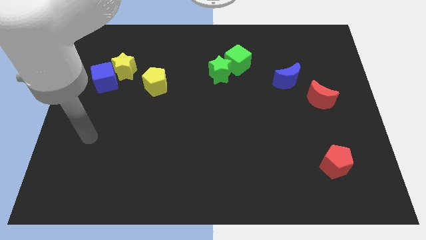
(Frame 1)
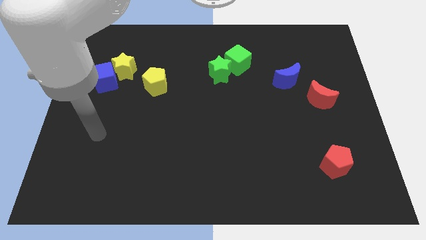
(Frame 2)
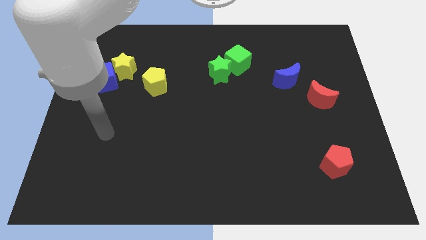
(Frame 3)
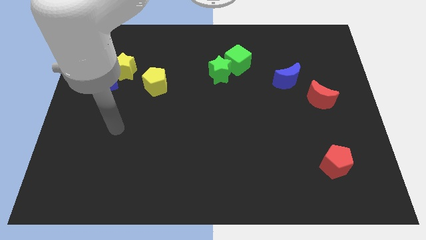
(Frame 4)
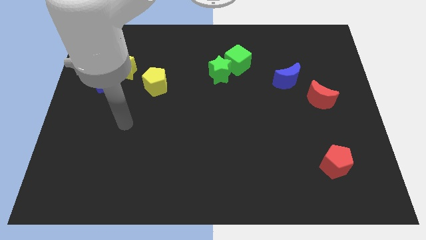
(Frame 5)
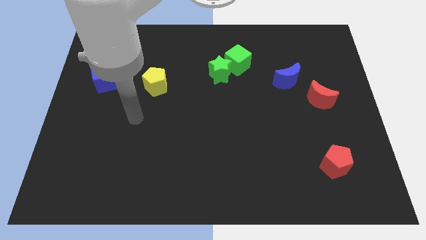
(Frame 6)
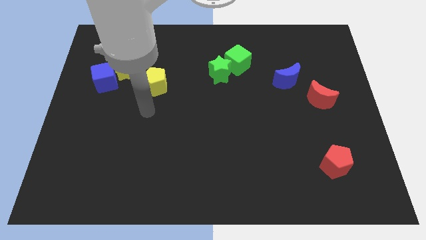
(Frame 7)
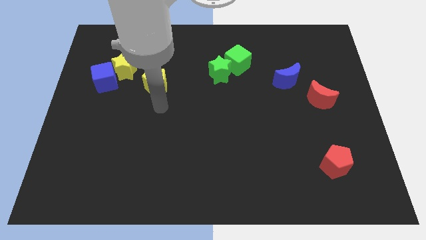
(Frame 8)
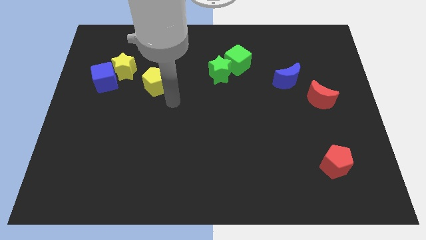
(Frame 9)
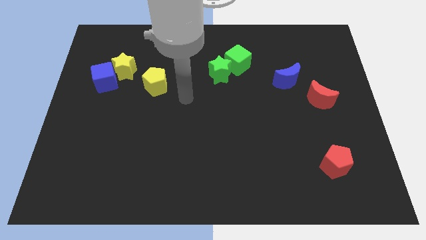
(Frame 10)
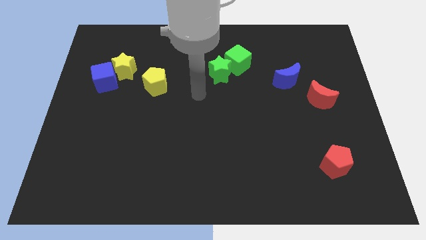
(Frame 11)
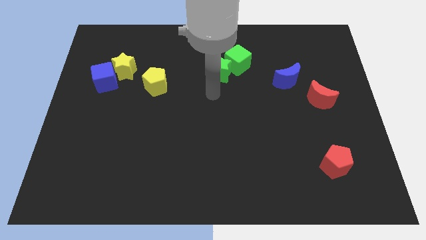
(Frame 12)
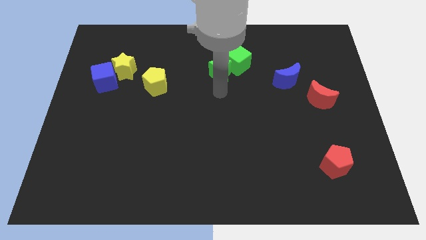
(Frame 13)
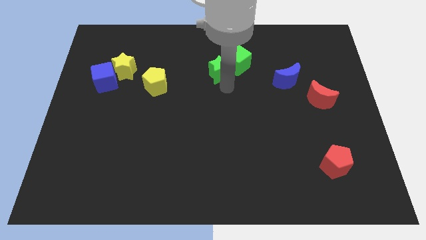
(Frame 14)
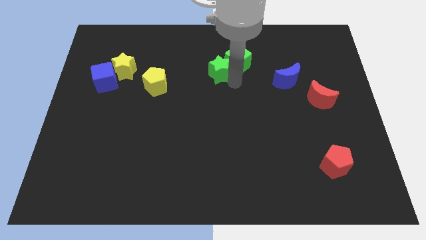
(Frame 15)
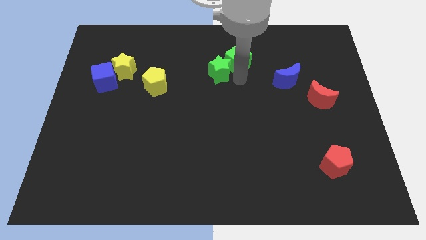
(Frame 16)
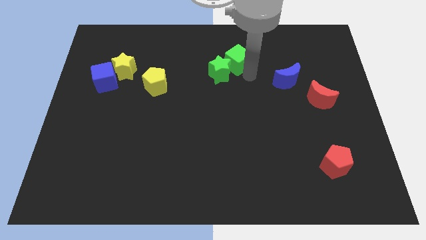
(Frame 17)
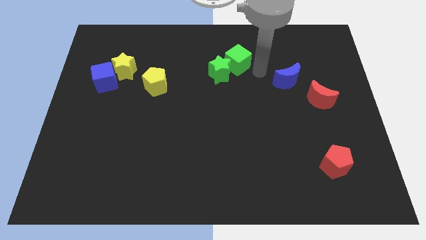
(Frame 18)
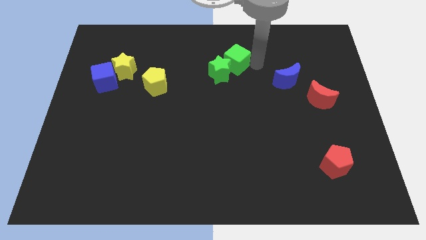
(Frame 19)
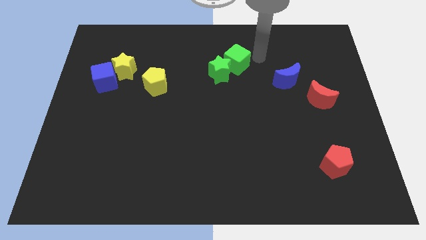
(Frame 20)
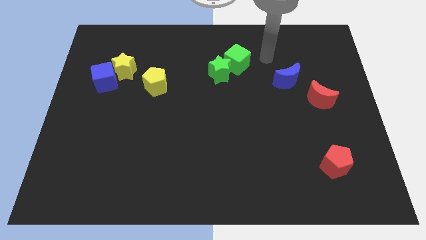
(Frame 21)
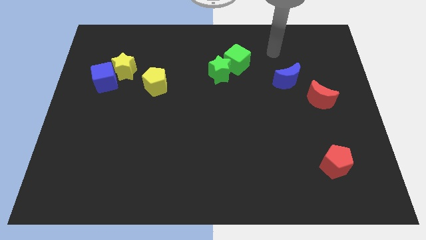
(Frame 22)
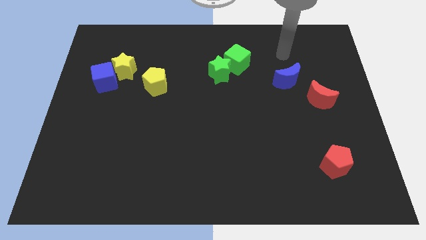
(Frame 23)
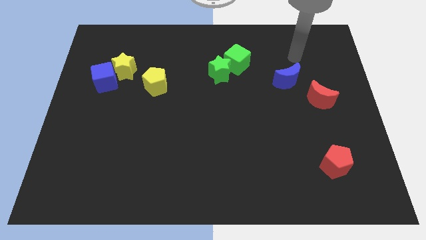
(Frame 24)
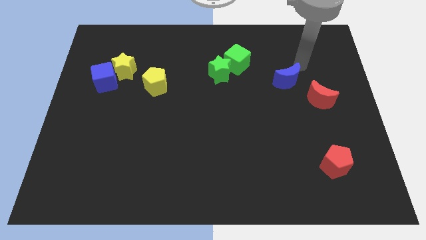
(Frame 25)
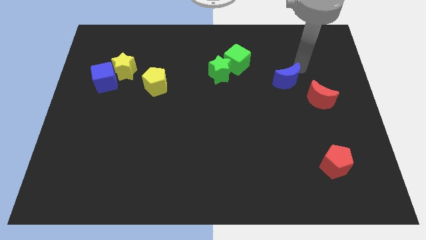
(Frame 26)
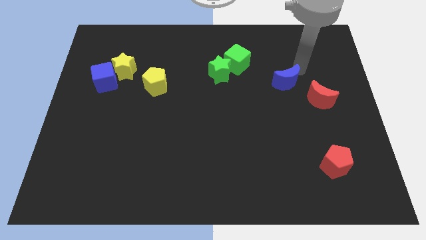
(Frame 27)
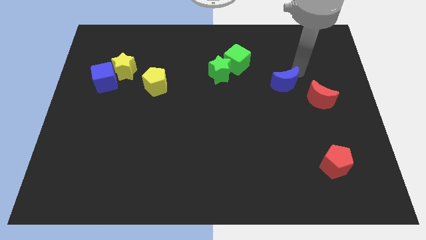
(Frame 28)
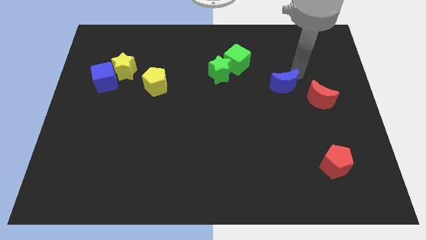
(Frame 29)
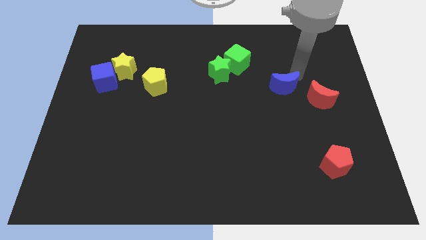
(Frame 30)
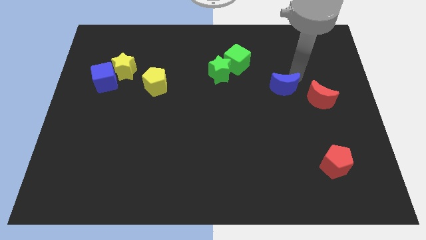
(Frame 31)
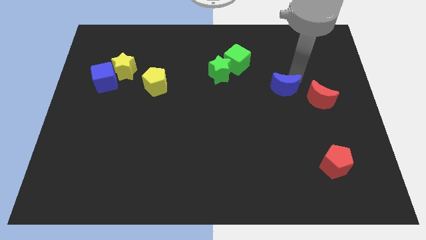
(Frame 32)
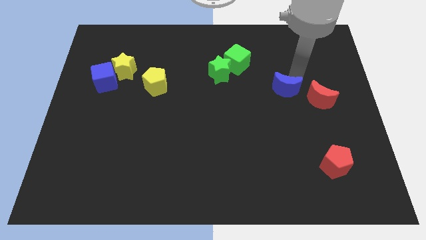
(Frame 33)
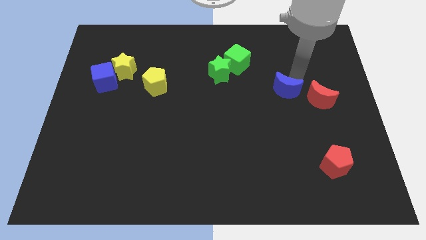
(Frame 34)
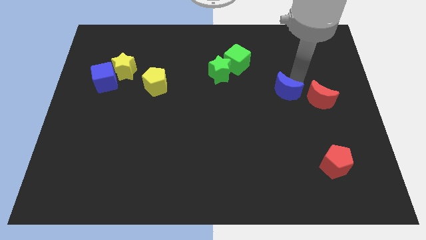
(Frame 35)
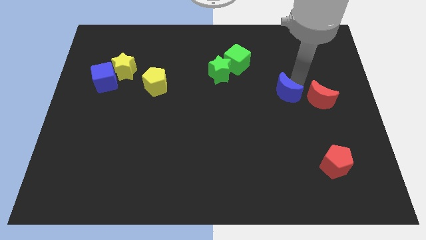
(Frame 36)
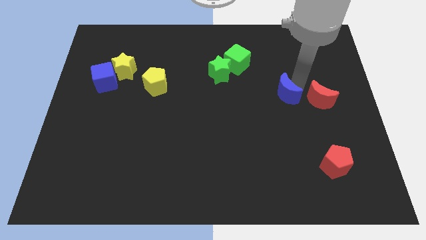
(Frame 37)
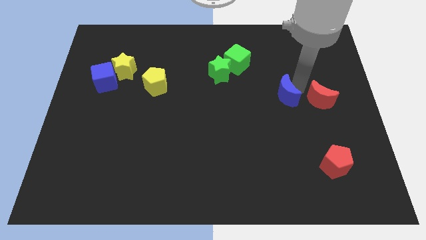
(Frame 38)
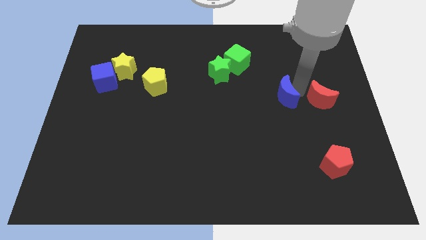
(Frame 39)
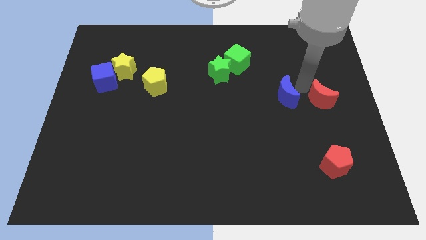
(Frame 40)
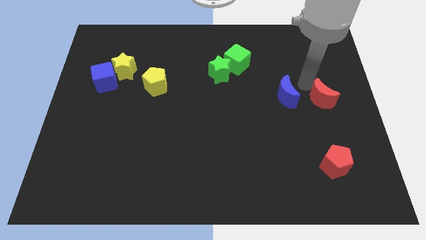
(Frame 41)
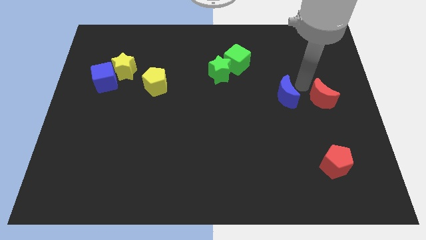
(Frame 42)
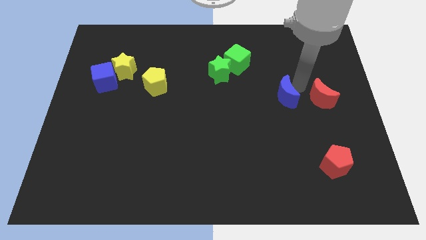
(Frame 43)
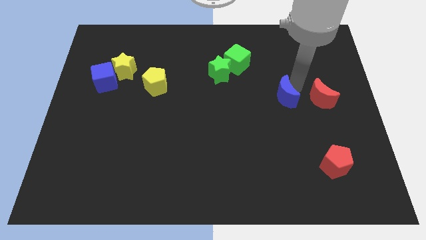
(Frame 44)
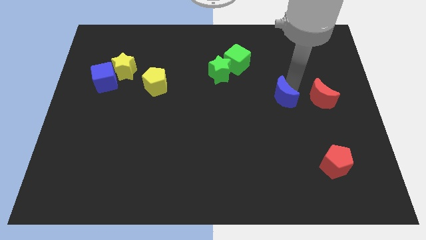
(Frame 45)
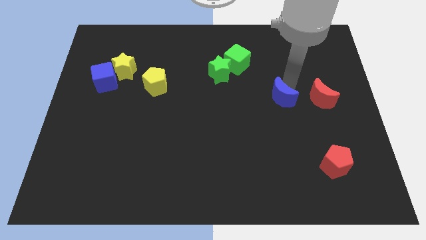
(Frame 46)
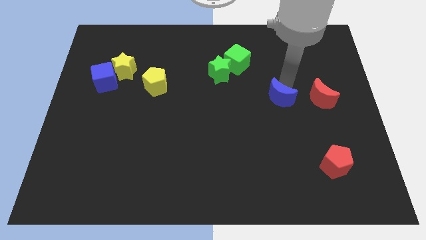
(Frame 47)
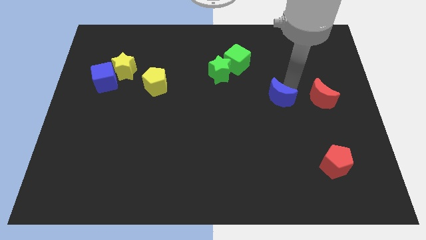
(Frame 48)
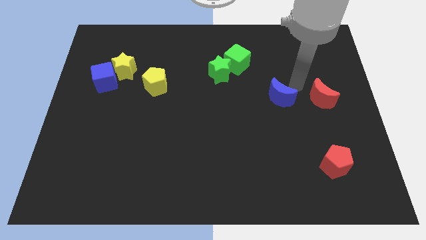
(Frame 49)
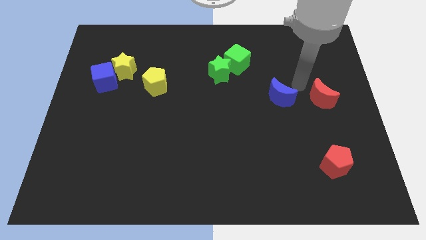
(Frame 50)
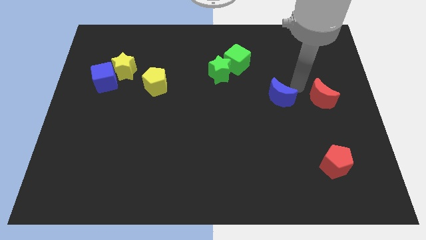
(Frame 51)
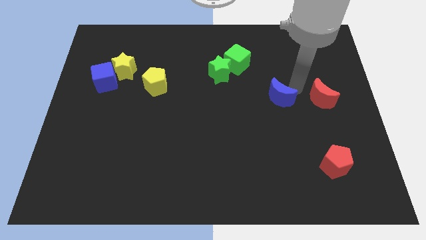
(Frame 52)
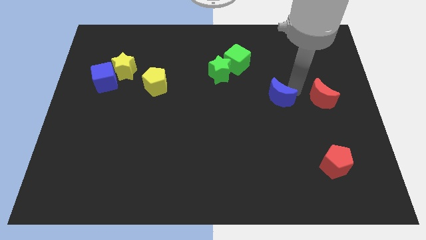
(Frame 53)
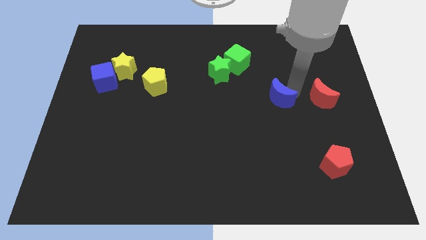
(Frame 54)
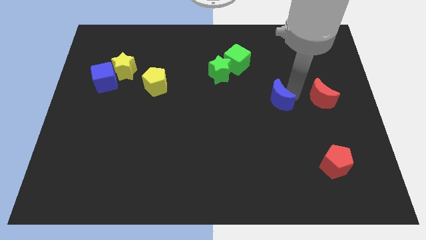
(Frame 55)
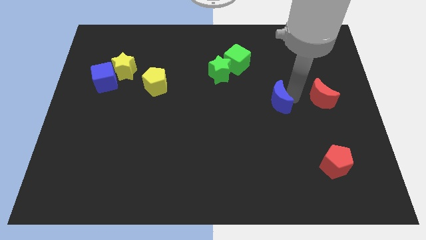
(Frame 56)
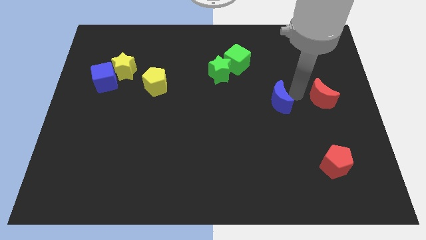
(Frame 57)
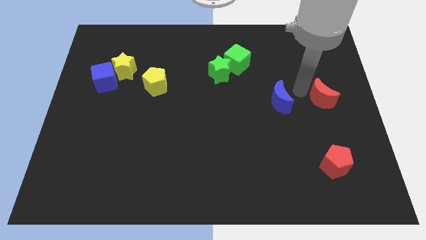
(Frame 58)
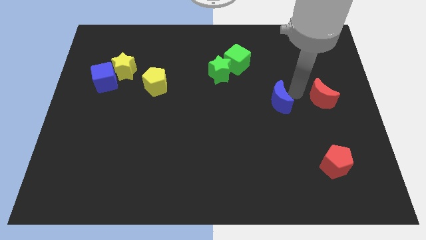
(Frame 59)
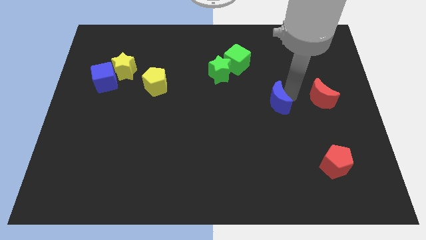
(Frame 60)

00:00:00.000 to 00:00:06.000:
push the blue moon down and left diagonally a little bit

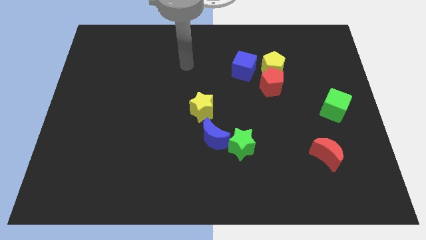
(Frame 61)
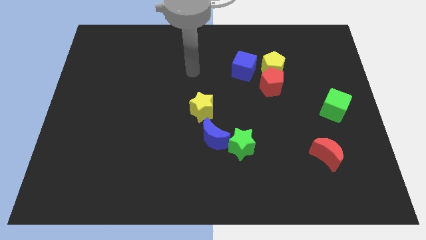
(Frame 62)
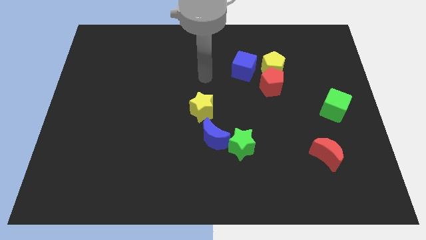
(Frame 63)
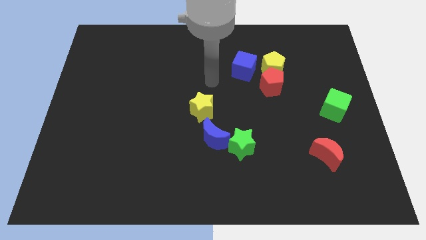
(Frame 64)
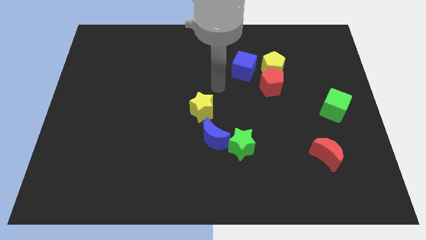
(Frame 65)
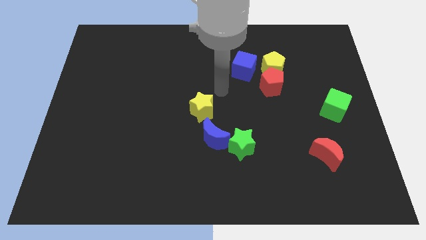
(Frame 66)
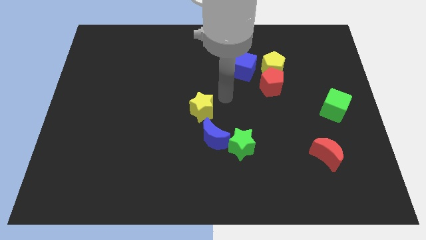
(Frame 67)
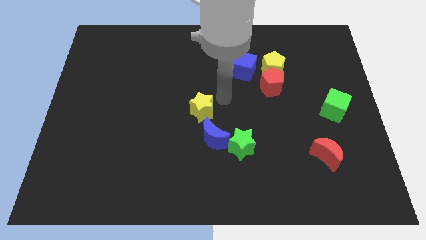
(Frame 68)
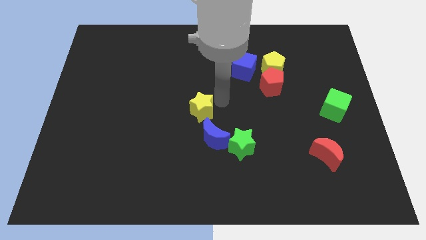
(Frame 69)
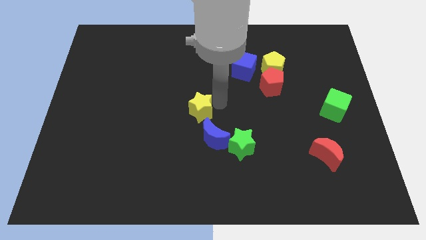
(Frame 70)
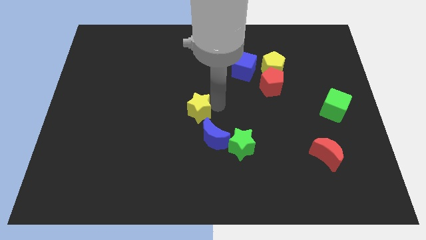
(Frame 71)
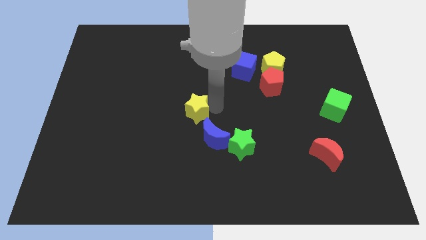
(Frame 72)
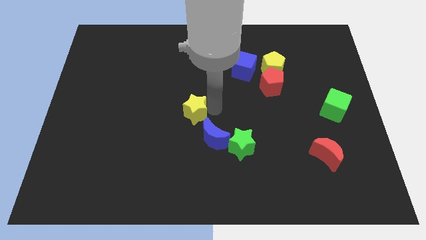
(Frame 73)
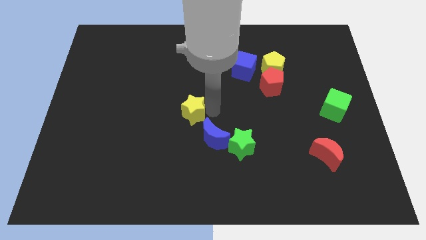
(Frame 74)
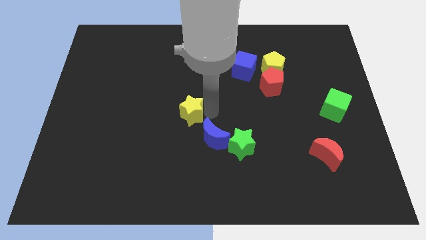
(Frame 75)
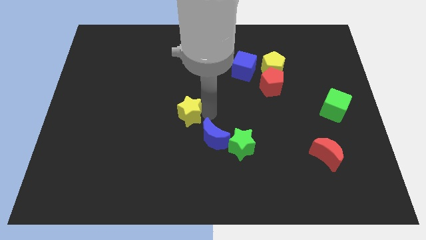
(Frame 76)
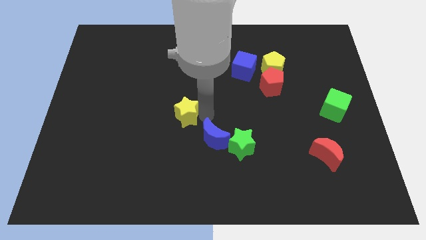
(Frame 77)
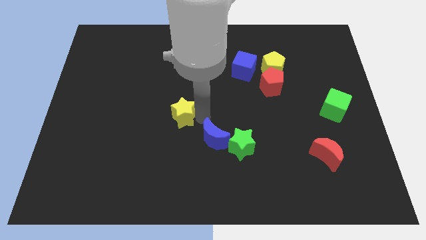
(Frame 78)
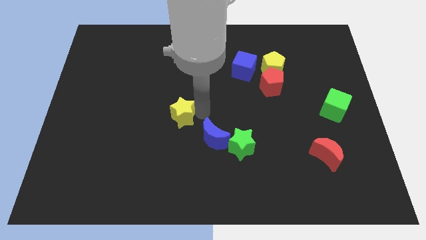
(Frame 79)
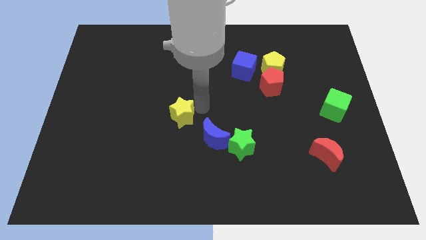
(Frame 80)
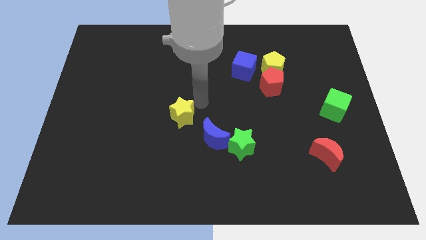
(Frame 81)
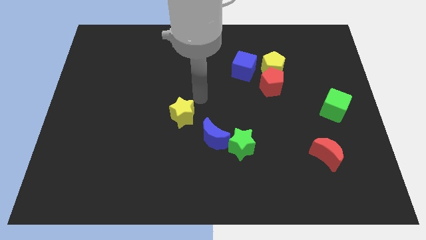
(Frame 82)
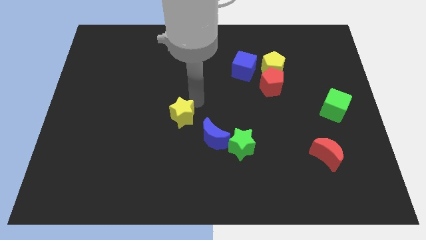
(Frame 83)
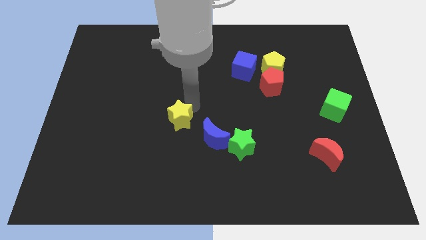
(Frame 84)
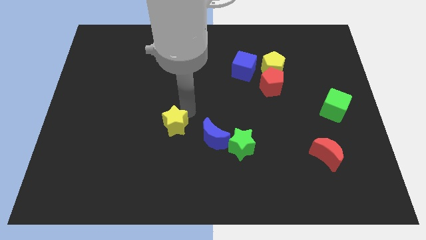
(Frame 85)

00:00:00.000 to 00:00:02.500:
move the yellow star a bit down and then to the left
